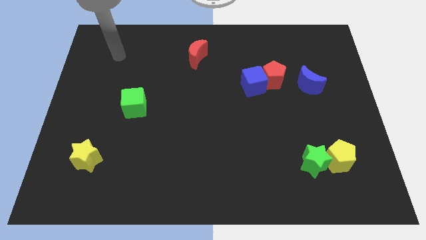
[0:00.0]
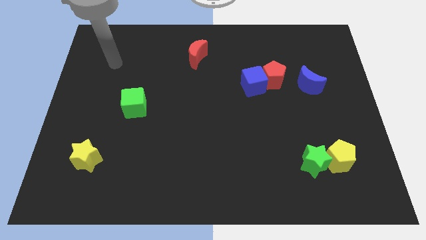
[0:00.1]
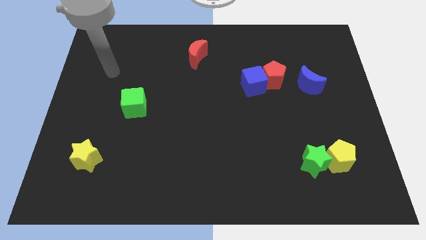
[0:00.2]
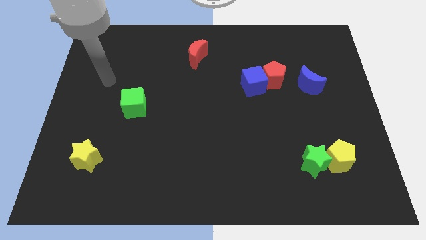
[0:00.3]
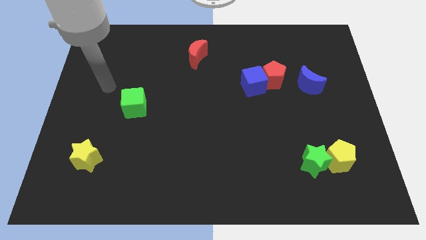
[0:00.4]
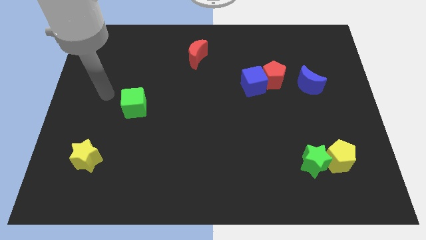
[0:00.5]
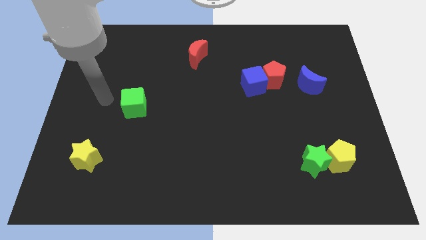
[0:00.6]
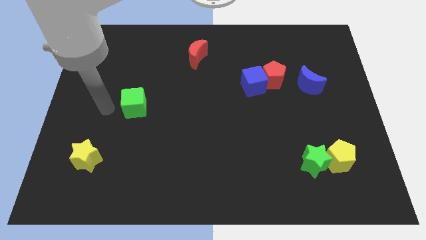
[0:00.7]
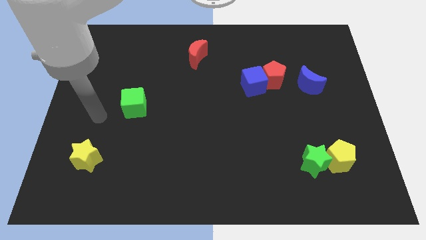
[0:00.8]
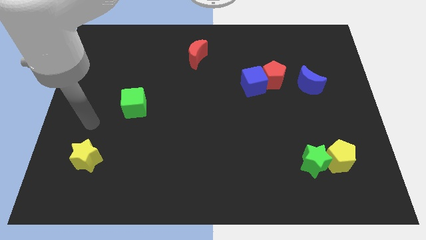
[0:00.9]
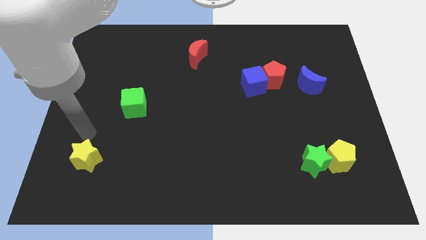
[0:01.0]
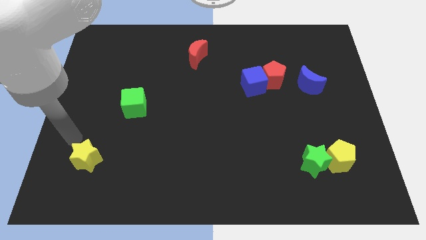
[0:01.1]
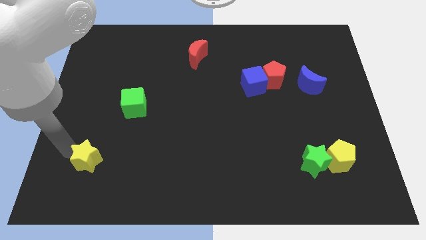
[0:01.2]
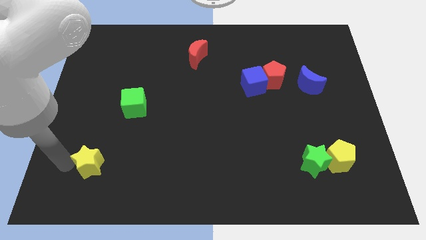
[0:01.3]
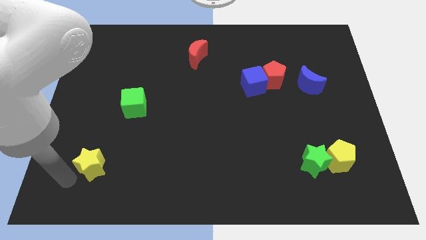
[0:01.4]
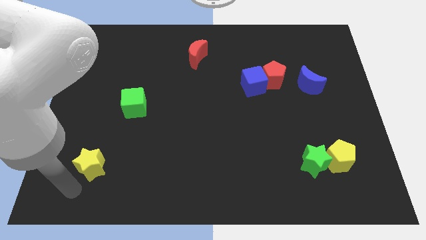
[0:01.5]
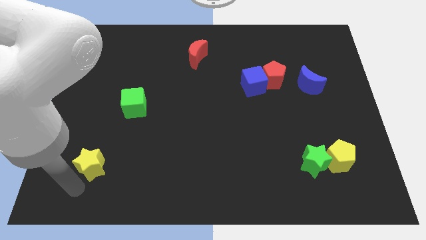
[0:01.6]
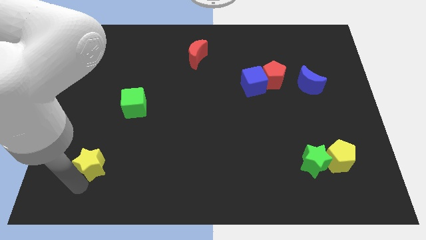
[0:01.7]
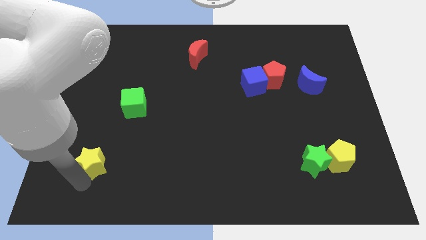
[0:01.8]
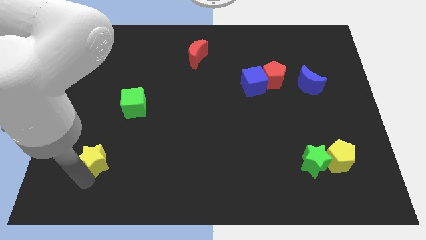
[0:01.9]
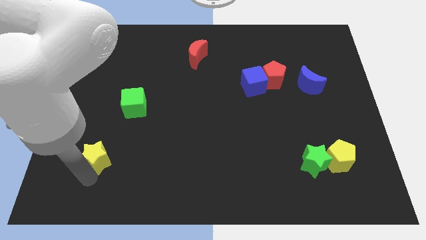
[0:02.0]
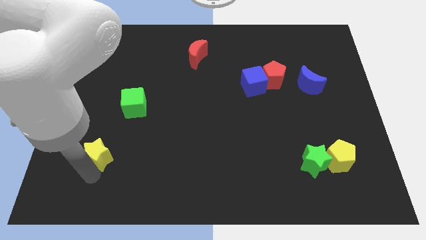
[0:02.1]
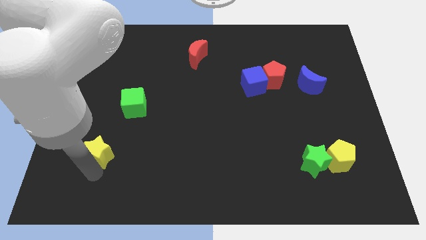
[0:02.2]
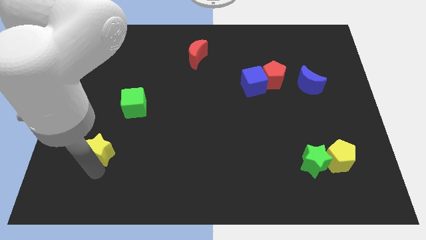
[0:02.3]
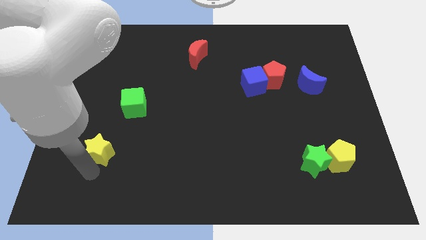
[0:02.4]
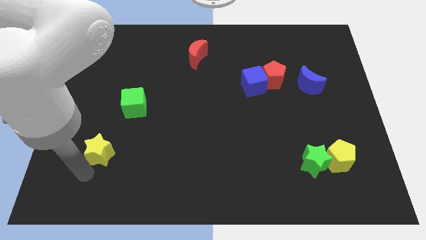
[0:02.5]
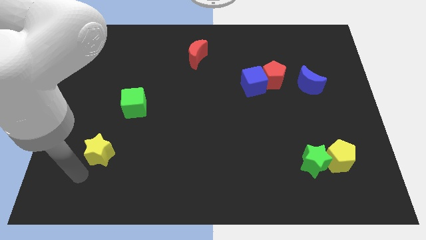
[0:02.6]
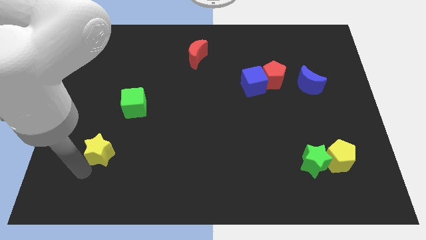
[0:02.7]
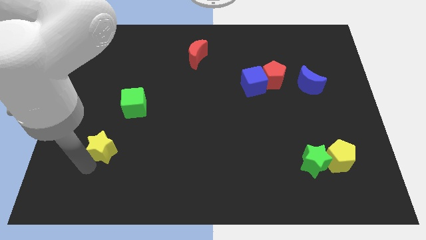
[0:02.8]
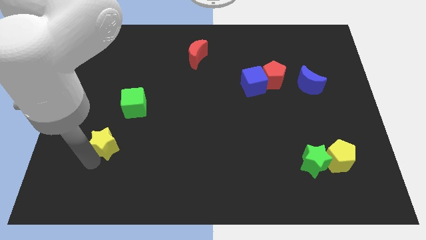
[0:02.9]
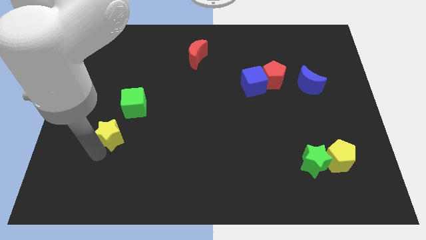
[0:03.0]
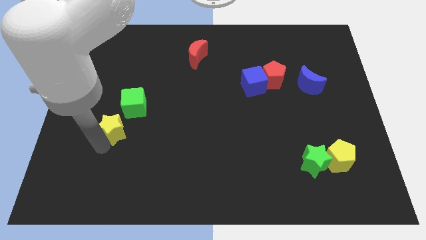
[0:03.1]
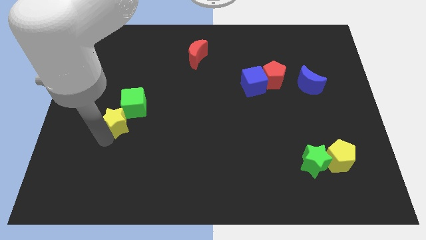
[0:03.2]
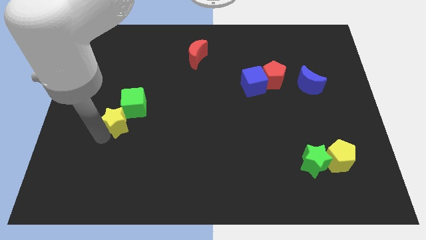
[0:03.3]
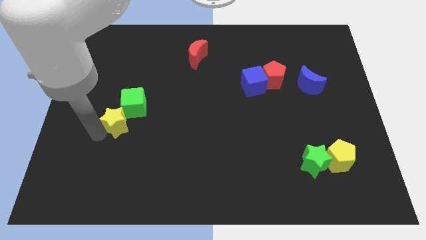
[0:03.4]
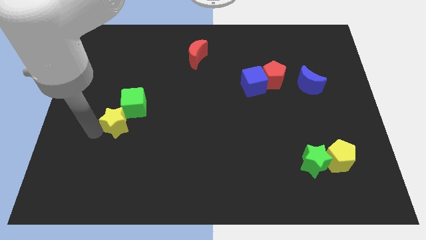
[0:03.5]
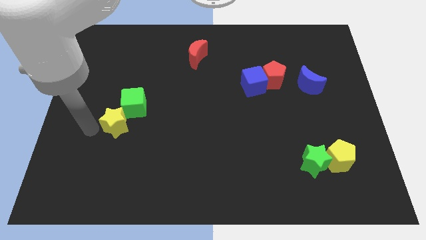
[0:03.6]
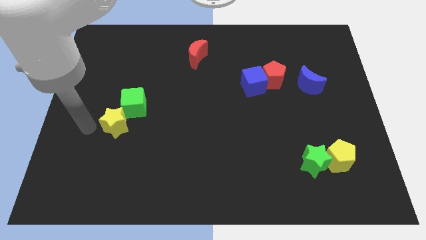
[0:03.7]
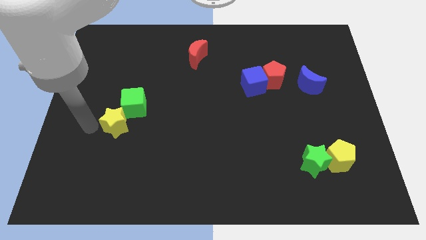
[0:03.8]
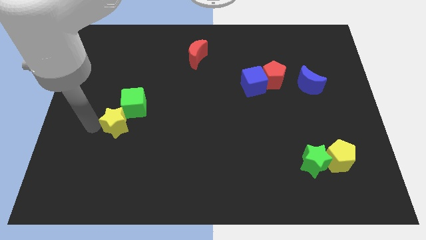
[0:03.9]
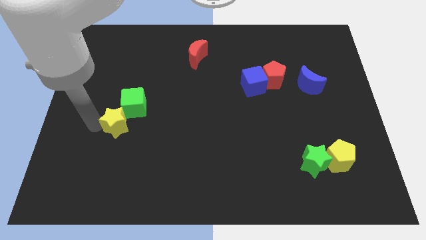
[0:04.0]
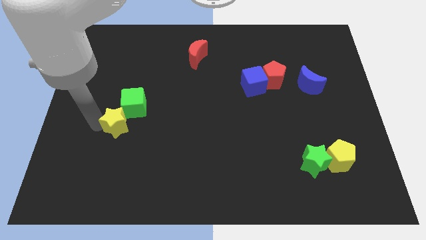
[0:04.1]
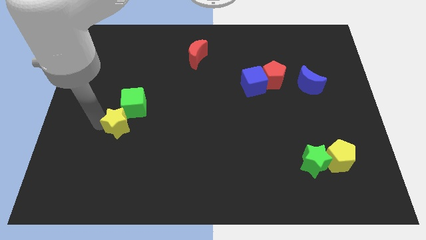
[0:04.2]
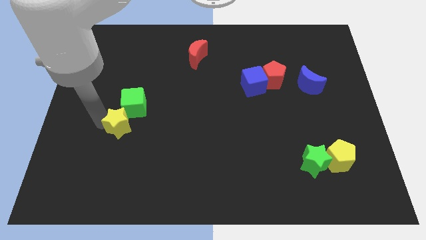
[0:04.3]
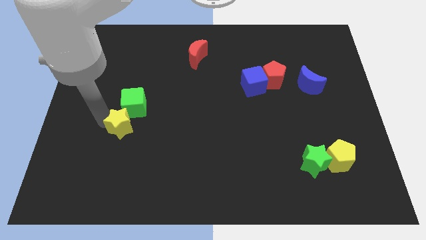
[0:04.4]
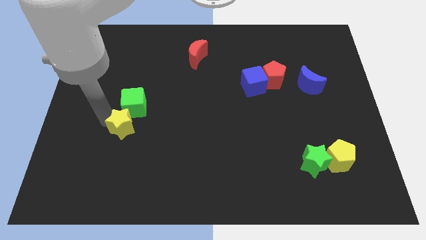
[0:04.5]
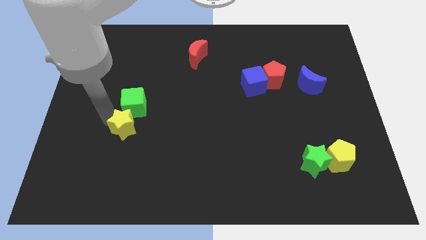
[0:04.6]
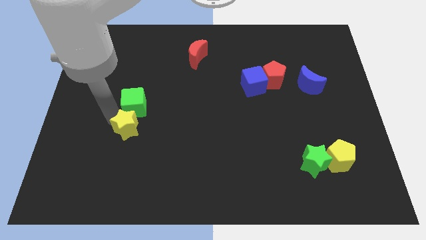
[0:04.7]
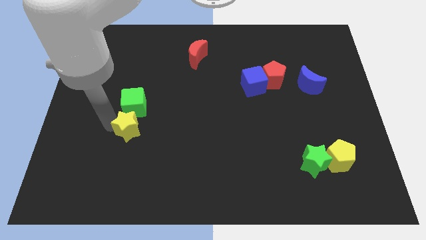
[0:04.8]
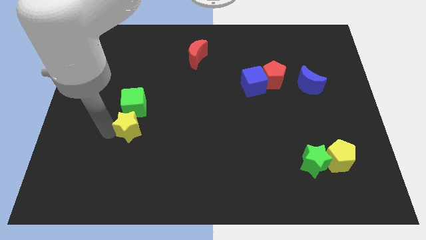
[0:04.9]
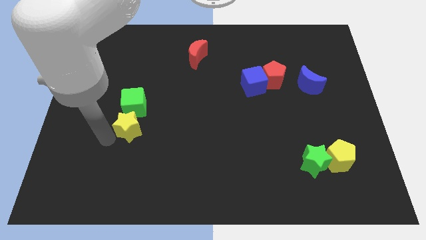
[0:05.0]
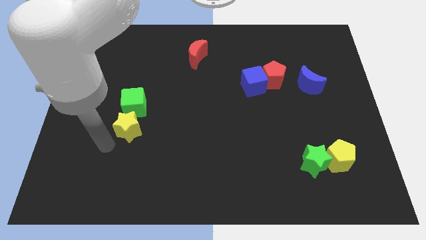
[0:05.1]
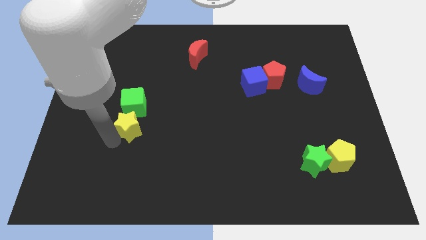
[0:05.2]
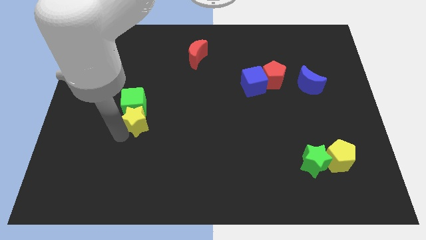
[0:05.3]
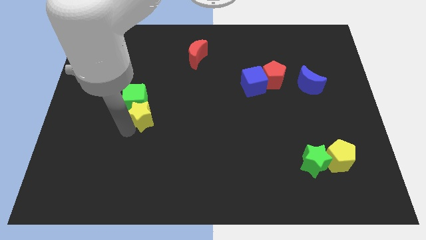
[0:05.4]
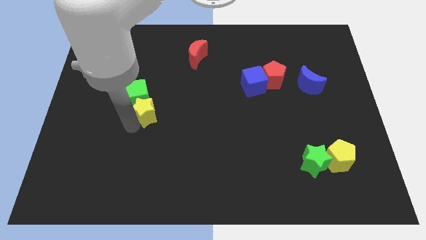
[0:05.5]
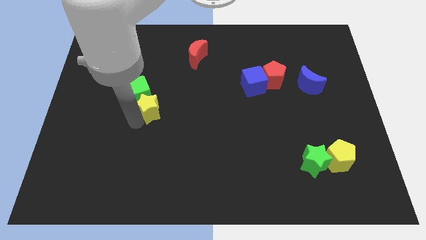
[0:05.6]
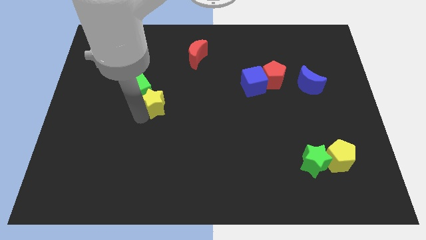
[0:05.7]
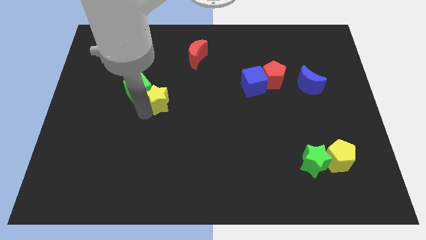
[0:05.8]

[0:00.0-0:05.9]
move the yellow star upwards and right

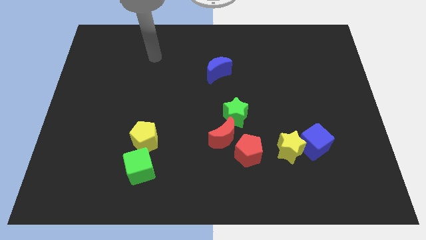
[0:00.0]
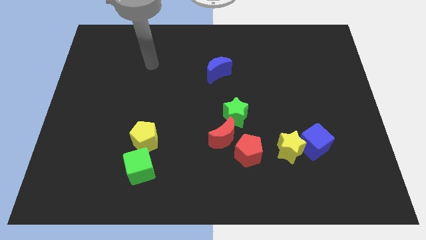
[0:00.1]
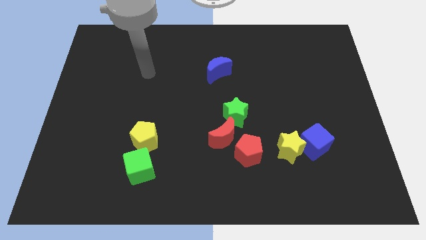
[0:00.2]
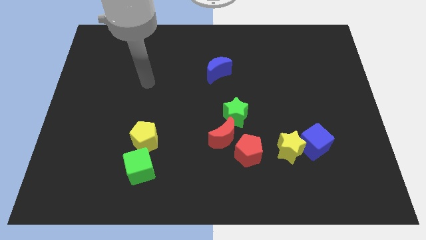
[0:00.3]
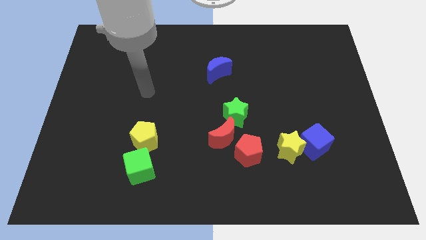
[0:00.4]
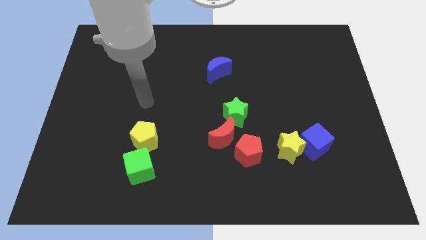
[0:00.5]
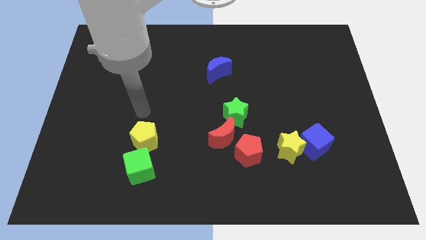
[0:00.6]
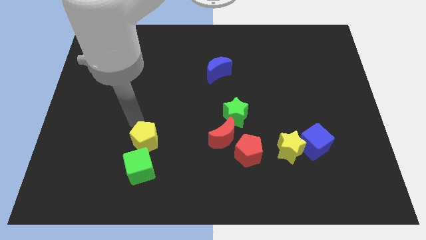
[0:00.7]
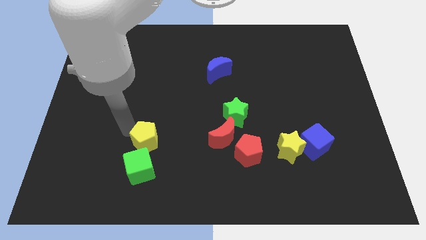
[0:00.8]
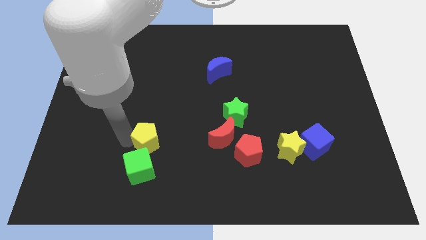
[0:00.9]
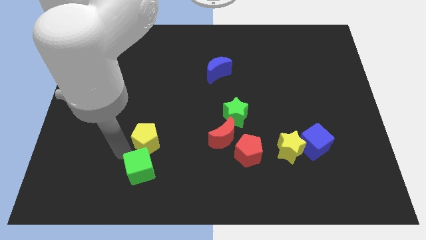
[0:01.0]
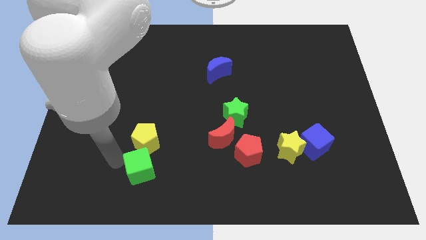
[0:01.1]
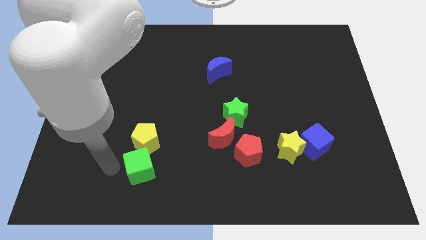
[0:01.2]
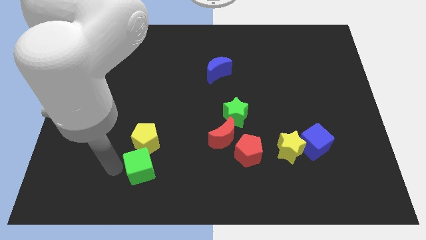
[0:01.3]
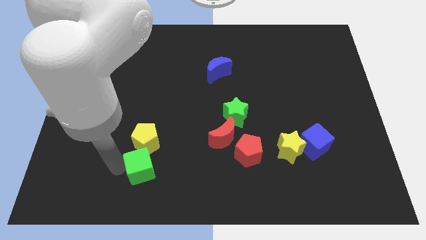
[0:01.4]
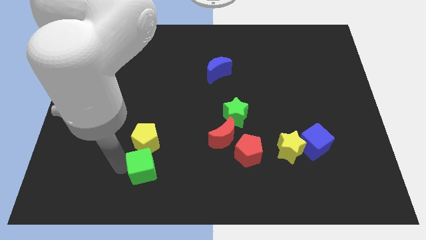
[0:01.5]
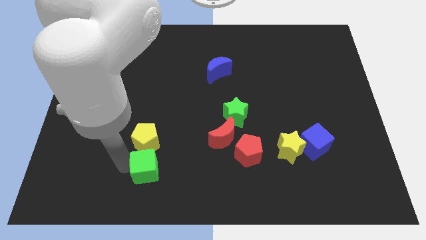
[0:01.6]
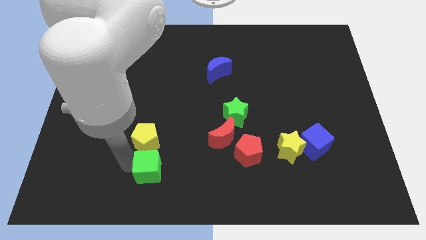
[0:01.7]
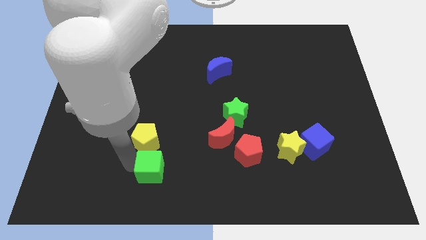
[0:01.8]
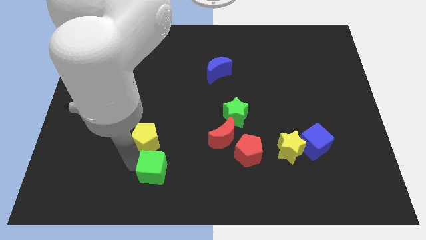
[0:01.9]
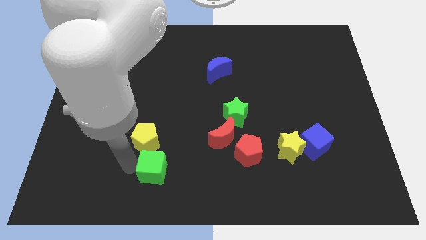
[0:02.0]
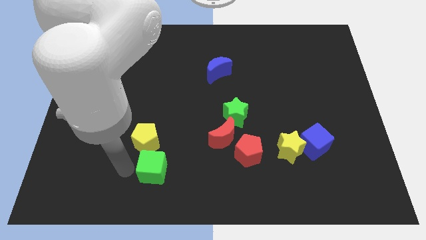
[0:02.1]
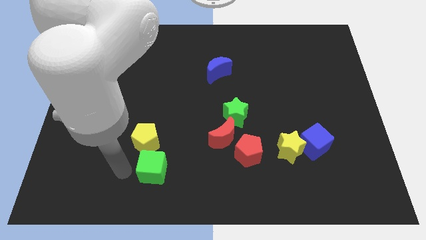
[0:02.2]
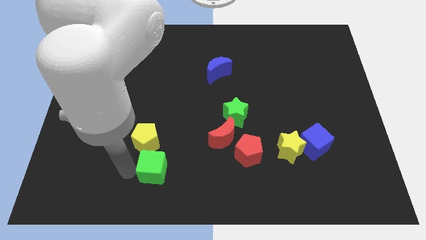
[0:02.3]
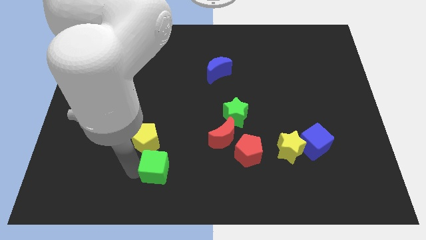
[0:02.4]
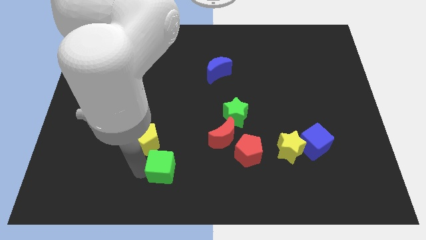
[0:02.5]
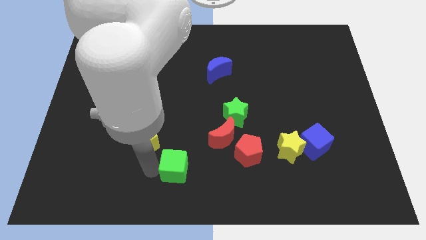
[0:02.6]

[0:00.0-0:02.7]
slightly move the green cube right
